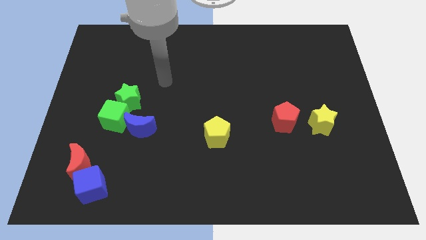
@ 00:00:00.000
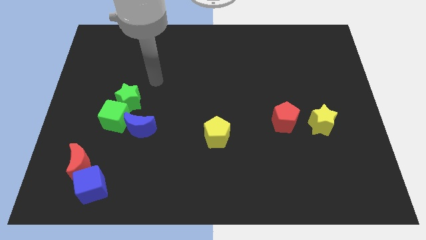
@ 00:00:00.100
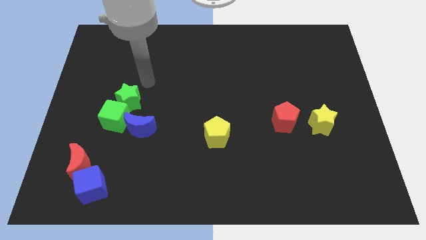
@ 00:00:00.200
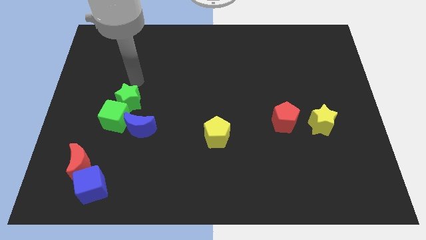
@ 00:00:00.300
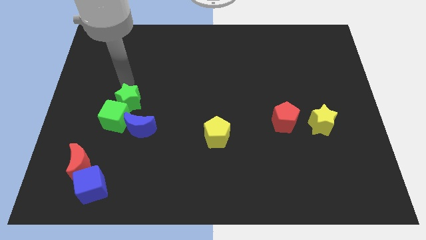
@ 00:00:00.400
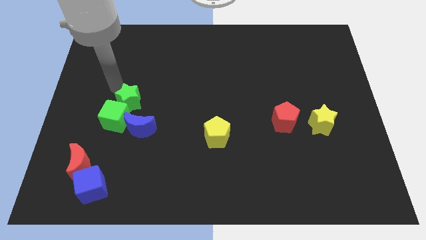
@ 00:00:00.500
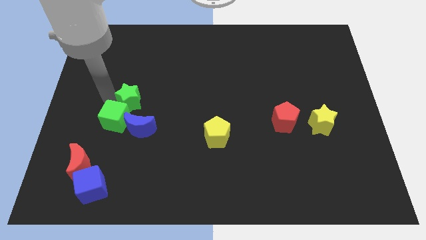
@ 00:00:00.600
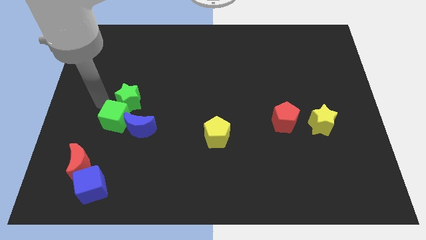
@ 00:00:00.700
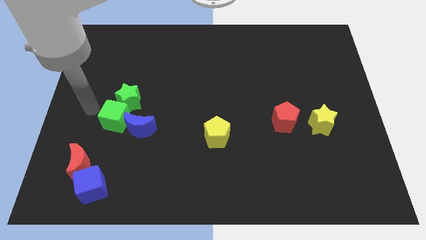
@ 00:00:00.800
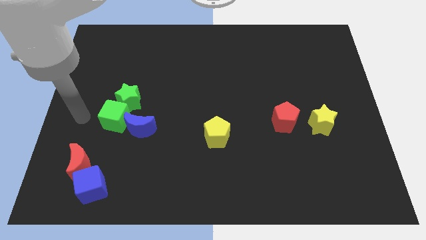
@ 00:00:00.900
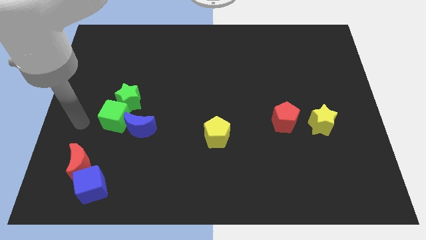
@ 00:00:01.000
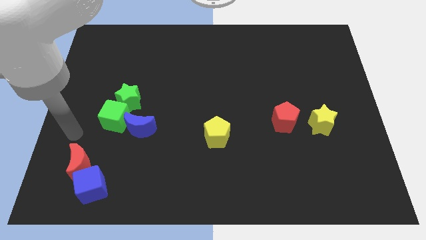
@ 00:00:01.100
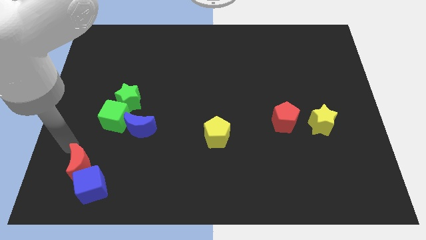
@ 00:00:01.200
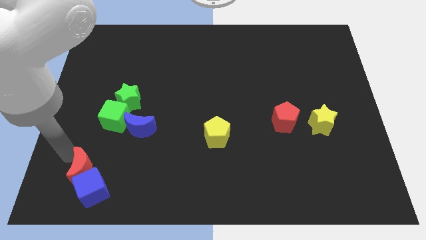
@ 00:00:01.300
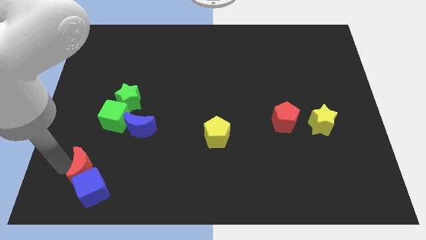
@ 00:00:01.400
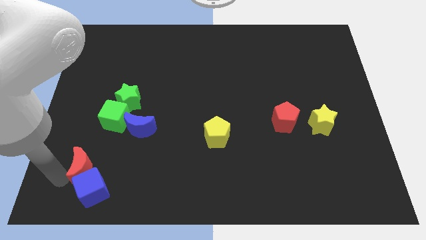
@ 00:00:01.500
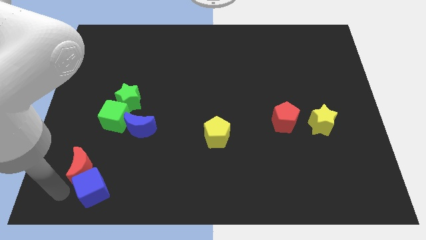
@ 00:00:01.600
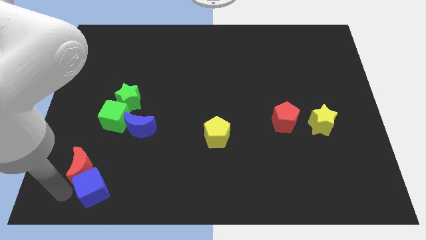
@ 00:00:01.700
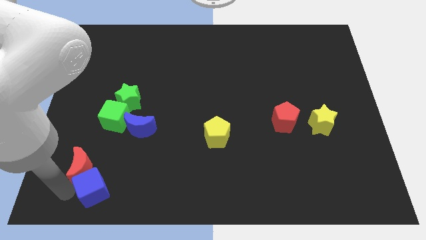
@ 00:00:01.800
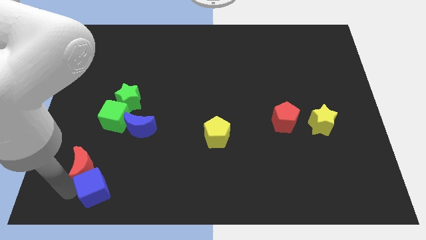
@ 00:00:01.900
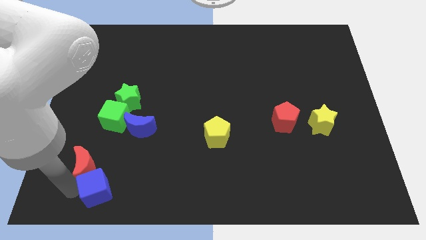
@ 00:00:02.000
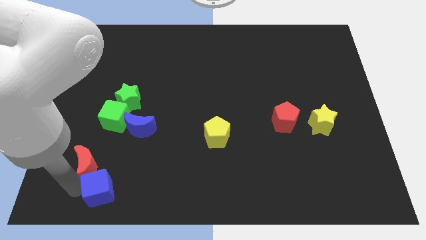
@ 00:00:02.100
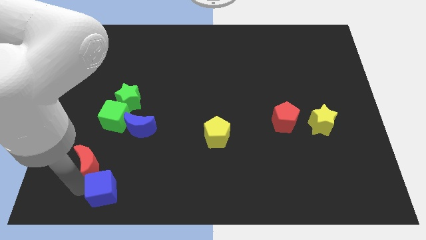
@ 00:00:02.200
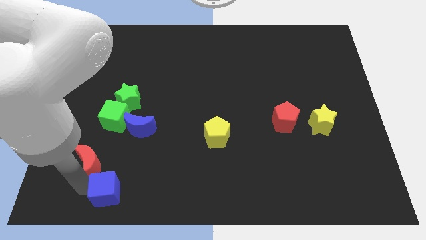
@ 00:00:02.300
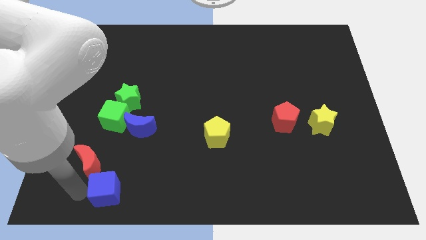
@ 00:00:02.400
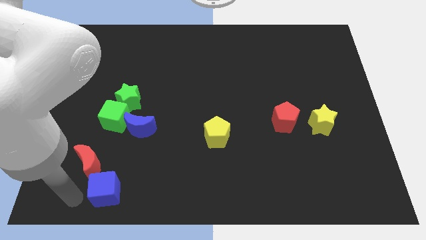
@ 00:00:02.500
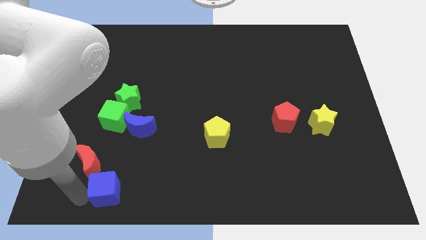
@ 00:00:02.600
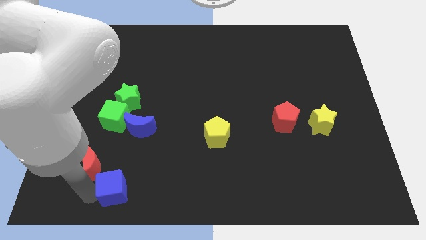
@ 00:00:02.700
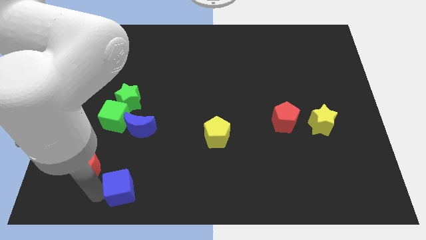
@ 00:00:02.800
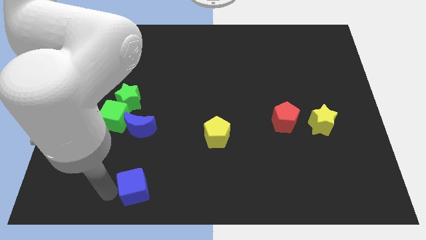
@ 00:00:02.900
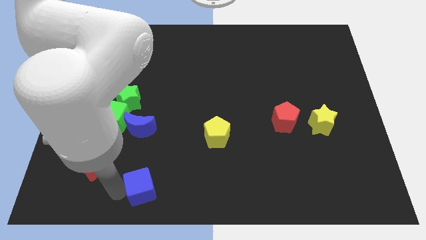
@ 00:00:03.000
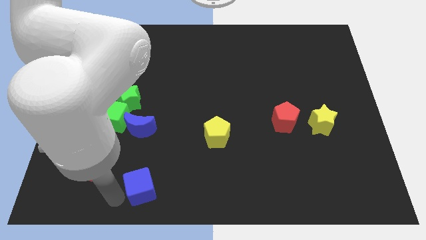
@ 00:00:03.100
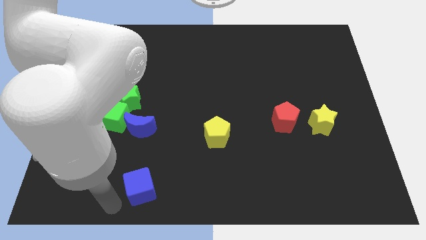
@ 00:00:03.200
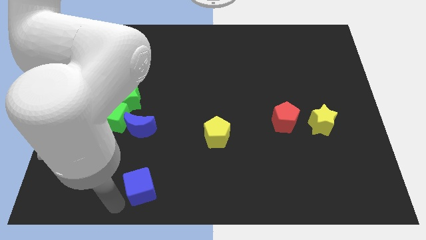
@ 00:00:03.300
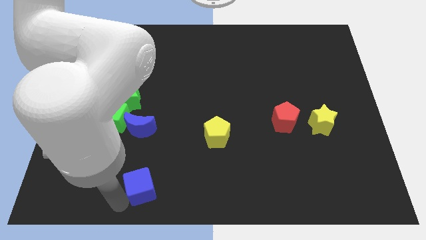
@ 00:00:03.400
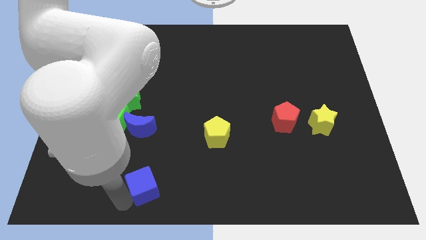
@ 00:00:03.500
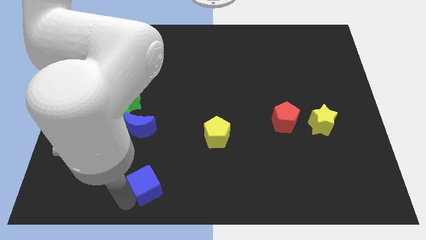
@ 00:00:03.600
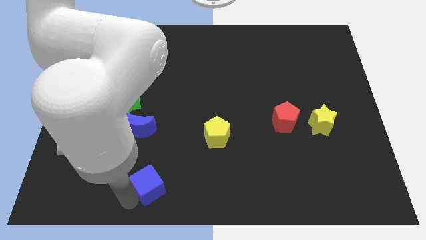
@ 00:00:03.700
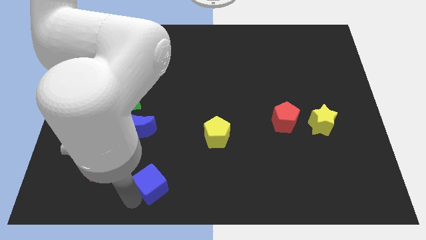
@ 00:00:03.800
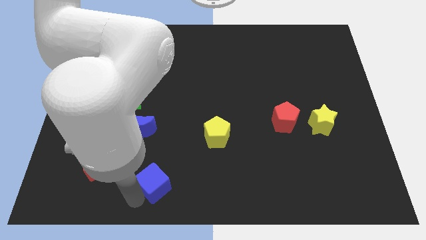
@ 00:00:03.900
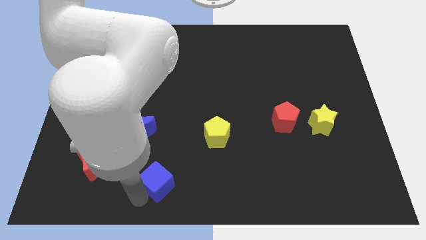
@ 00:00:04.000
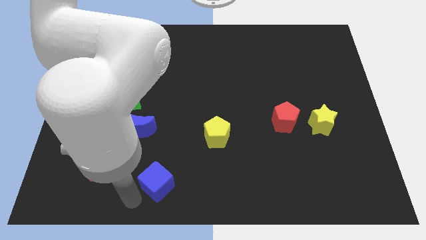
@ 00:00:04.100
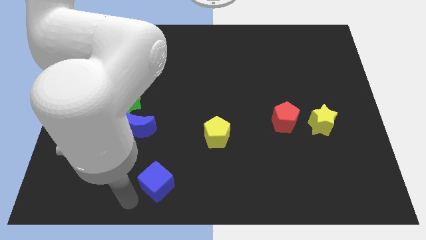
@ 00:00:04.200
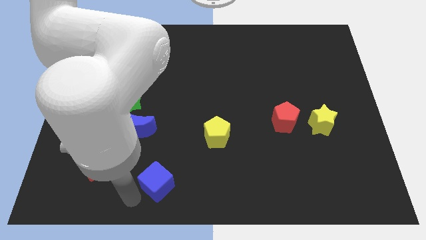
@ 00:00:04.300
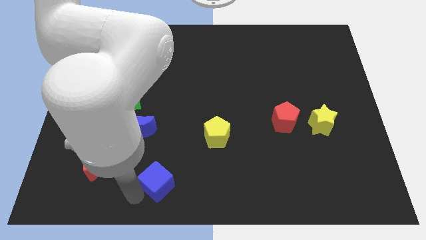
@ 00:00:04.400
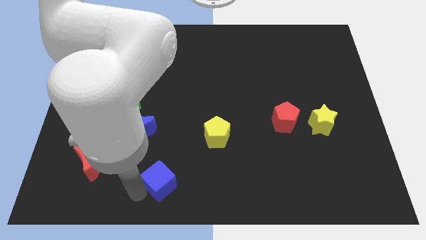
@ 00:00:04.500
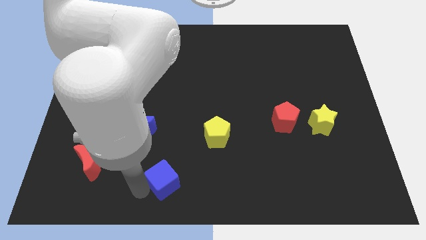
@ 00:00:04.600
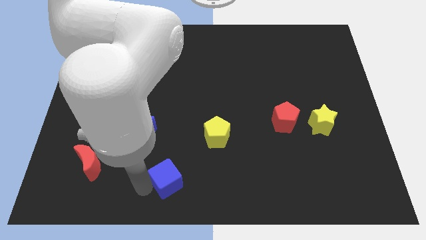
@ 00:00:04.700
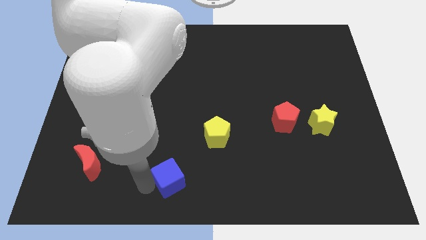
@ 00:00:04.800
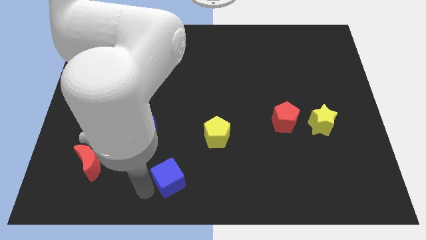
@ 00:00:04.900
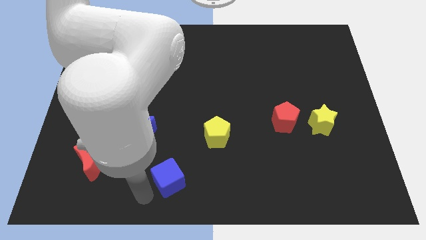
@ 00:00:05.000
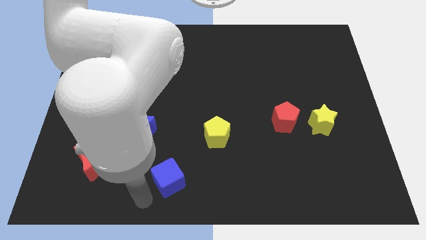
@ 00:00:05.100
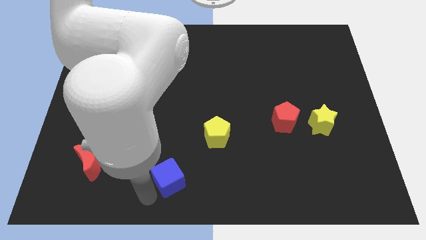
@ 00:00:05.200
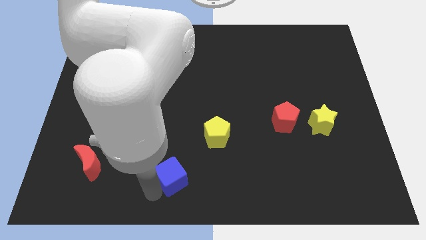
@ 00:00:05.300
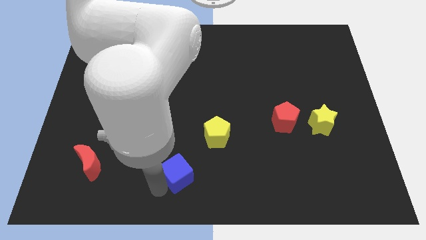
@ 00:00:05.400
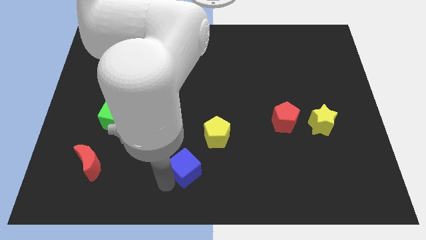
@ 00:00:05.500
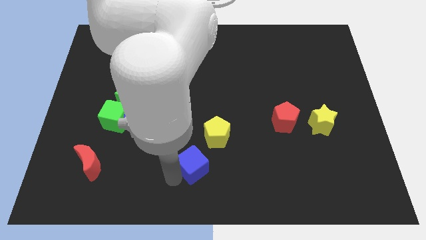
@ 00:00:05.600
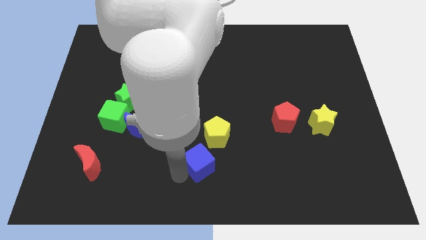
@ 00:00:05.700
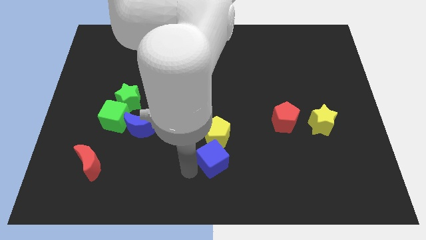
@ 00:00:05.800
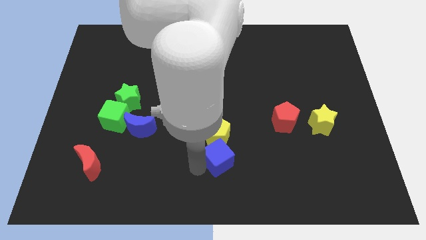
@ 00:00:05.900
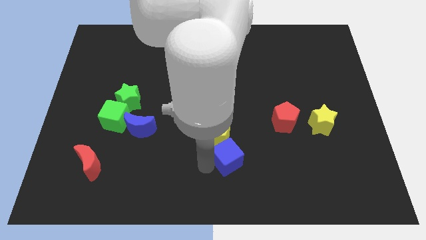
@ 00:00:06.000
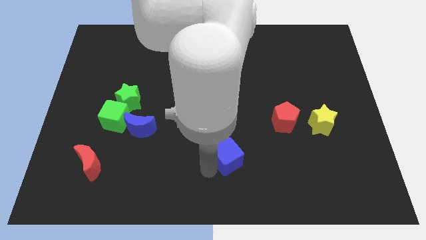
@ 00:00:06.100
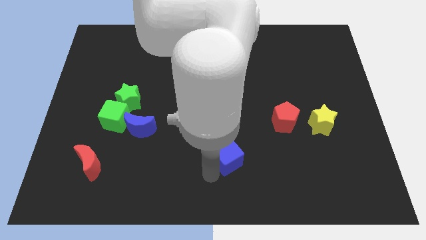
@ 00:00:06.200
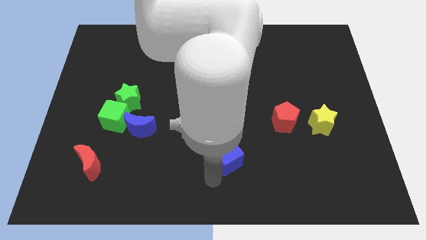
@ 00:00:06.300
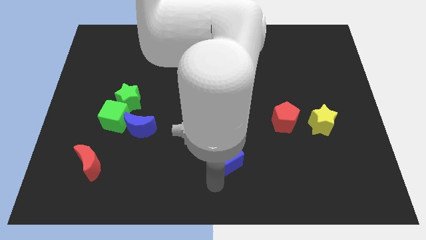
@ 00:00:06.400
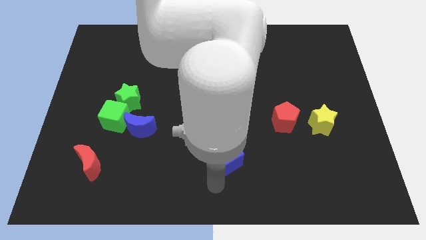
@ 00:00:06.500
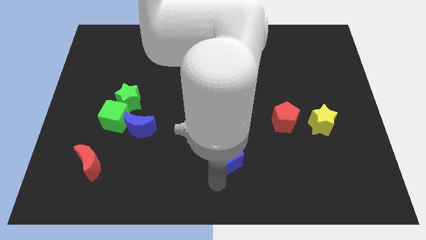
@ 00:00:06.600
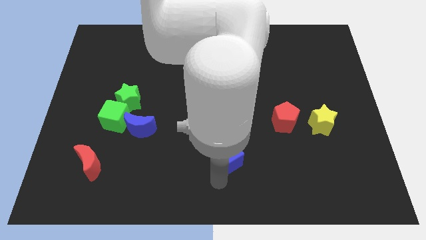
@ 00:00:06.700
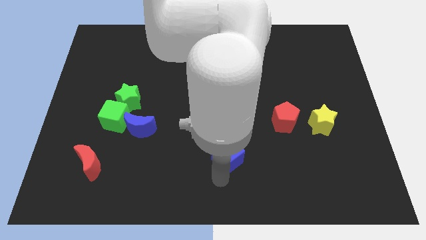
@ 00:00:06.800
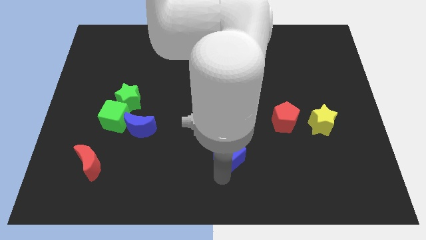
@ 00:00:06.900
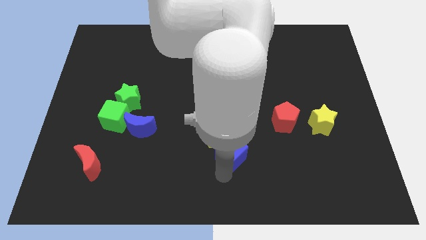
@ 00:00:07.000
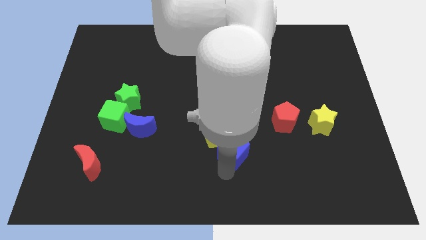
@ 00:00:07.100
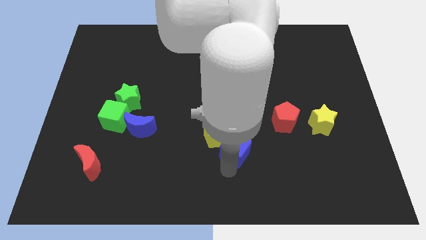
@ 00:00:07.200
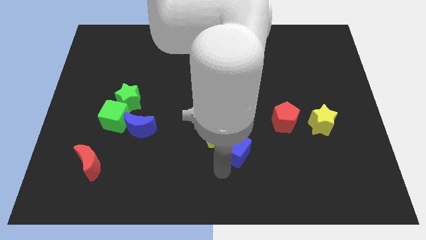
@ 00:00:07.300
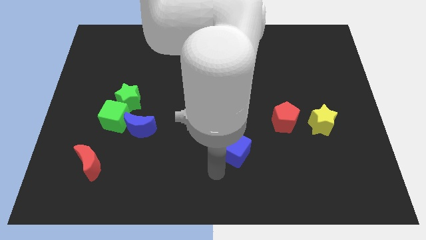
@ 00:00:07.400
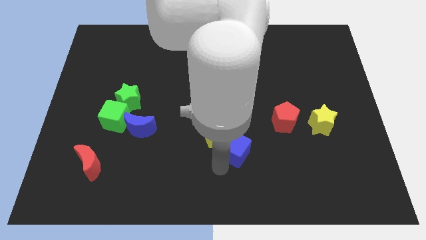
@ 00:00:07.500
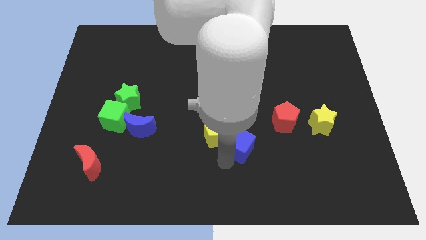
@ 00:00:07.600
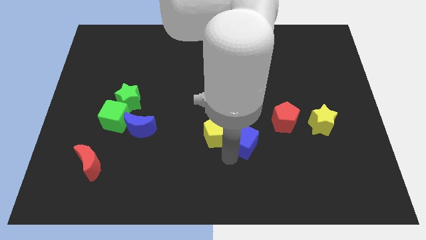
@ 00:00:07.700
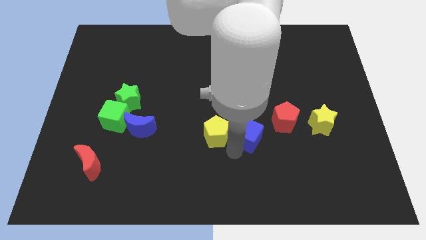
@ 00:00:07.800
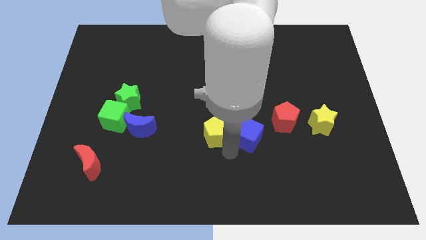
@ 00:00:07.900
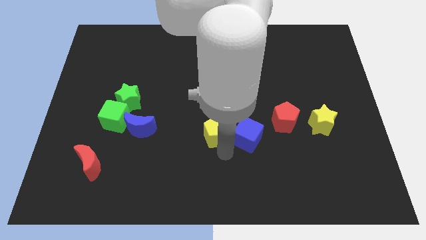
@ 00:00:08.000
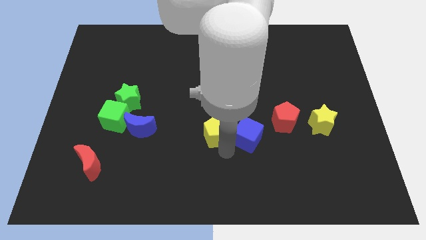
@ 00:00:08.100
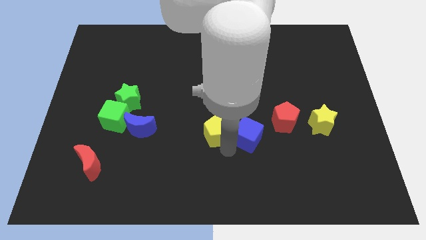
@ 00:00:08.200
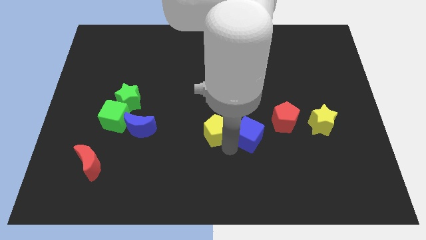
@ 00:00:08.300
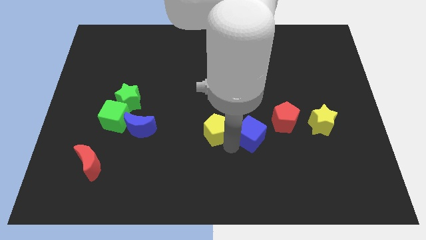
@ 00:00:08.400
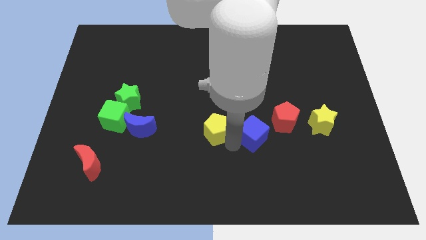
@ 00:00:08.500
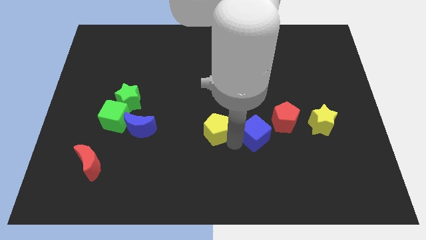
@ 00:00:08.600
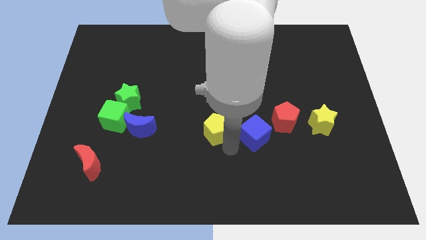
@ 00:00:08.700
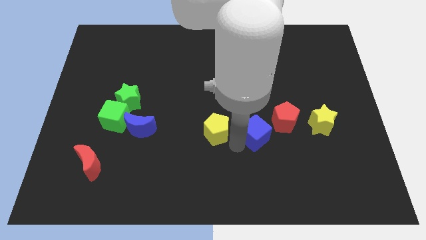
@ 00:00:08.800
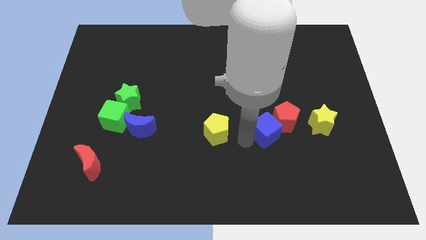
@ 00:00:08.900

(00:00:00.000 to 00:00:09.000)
push the blue cube close to the red pentagon
